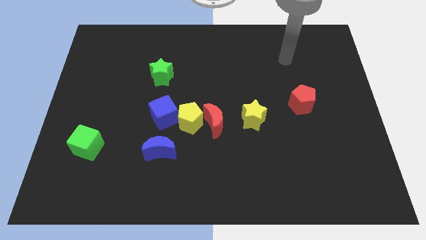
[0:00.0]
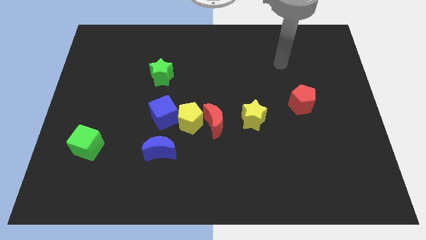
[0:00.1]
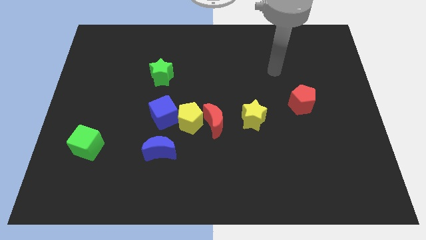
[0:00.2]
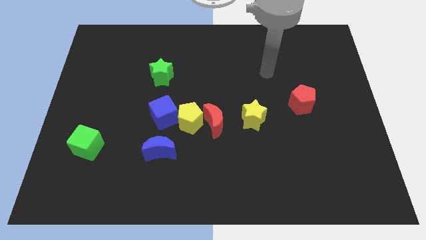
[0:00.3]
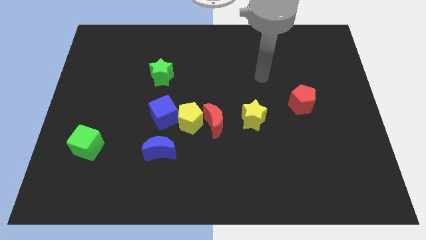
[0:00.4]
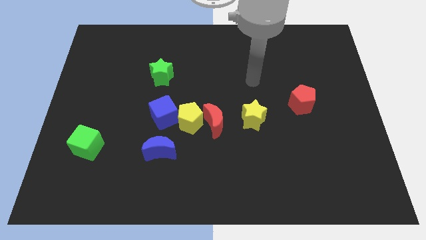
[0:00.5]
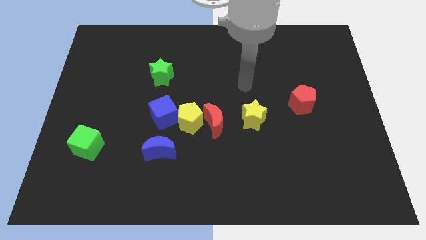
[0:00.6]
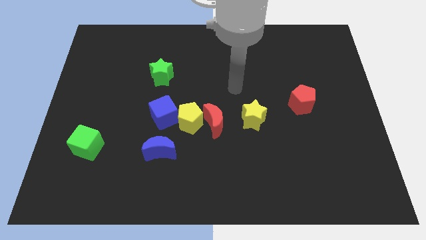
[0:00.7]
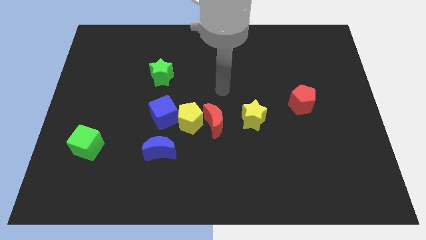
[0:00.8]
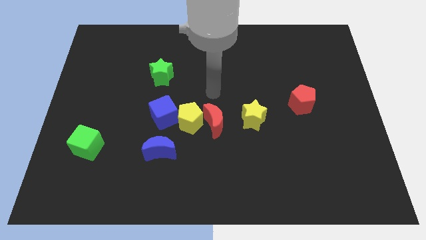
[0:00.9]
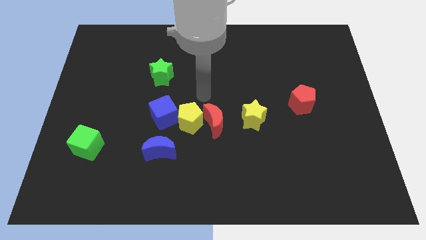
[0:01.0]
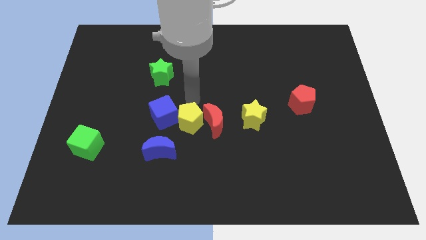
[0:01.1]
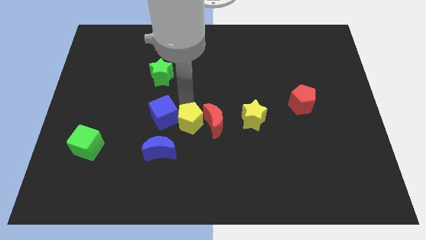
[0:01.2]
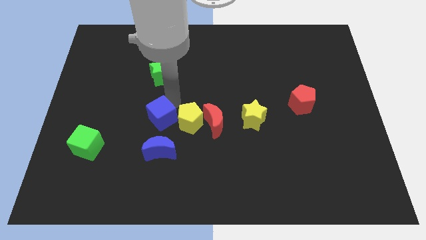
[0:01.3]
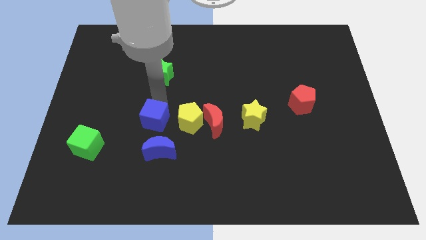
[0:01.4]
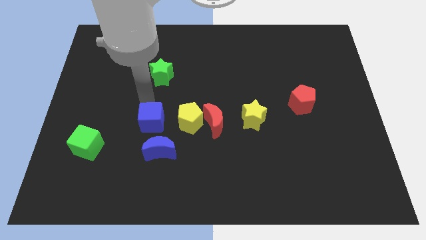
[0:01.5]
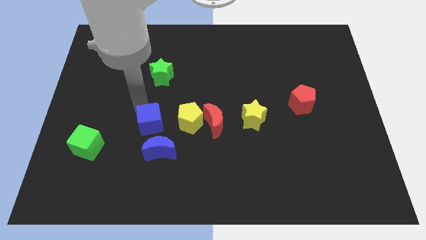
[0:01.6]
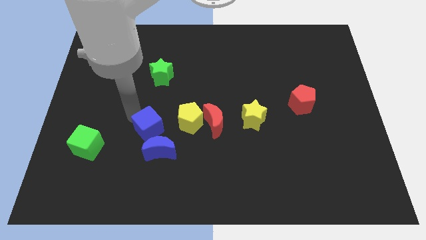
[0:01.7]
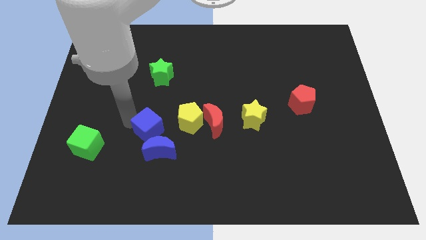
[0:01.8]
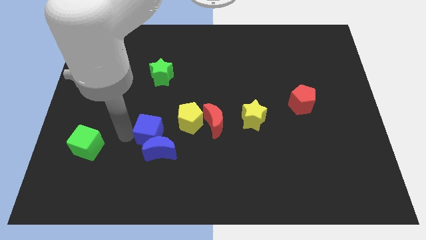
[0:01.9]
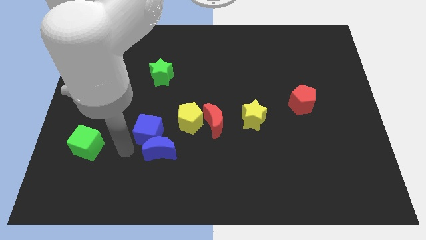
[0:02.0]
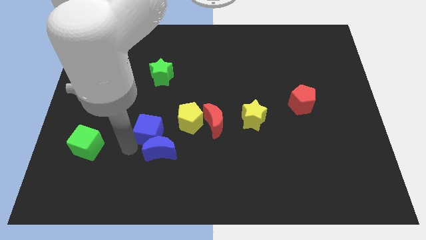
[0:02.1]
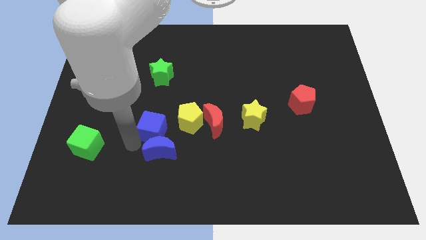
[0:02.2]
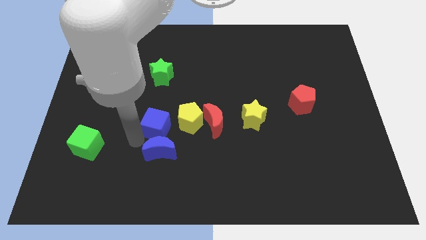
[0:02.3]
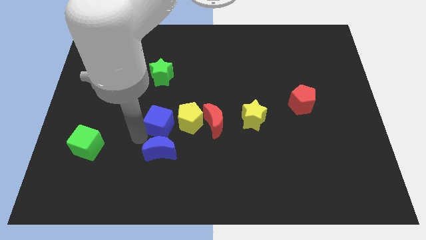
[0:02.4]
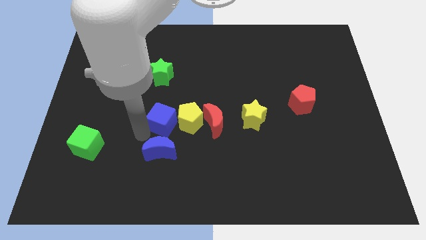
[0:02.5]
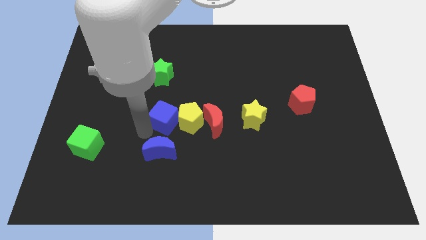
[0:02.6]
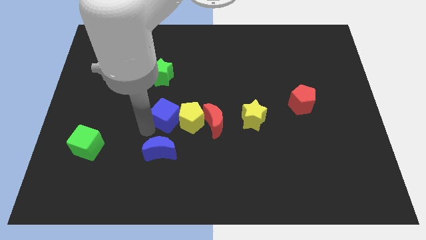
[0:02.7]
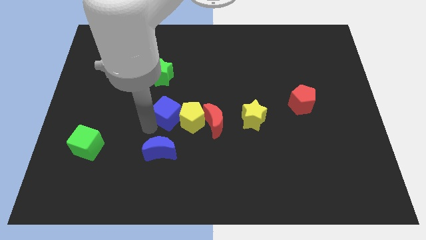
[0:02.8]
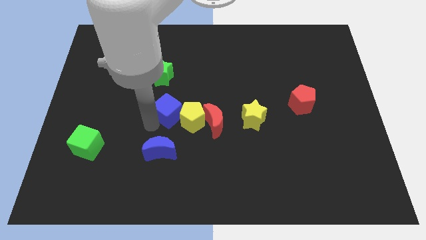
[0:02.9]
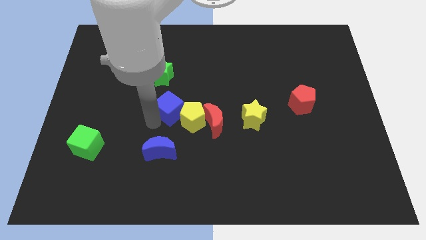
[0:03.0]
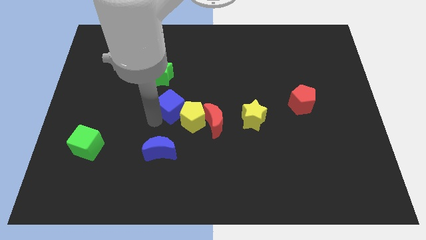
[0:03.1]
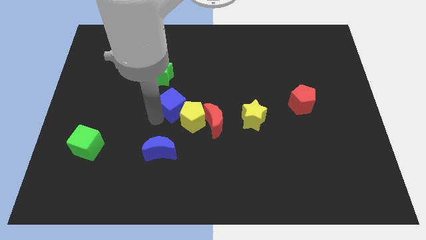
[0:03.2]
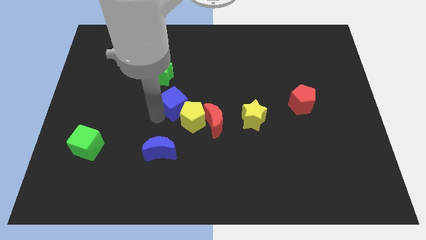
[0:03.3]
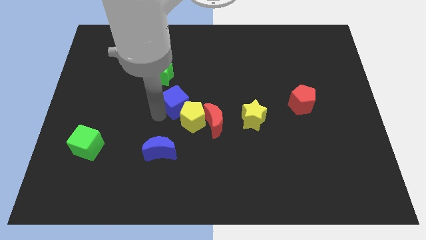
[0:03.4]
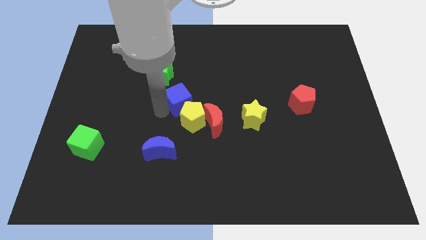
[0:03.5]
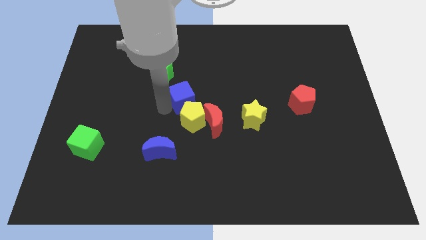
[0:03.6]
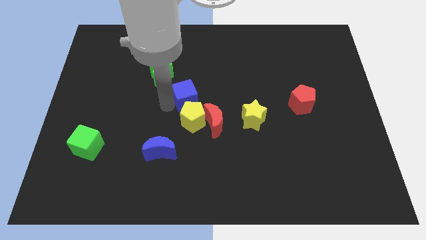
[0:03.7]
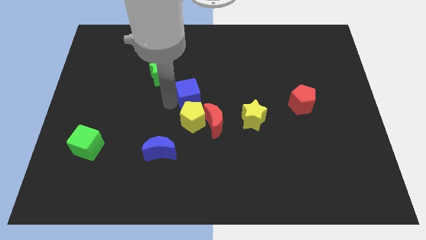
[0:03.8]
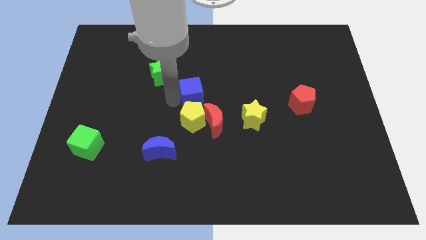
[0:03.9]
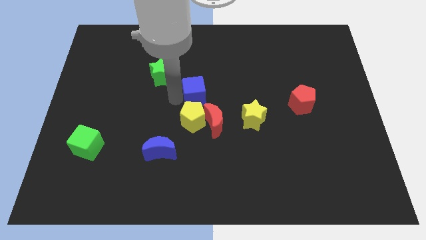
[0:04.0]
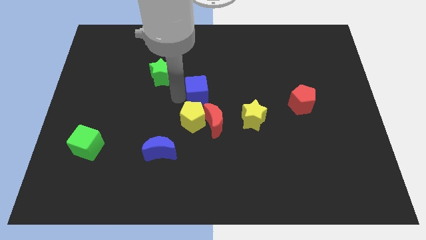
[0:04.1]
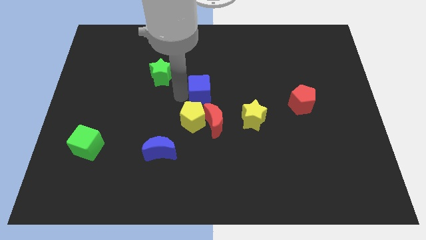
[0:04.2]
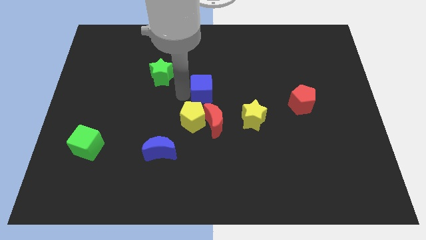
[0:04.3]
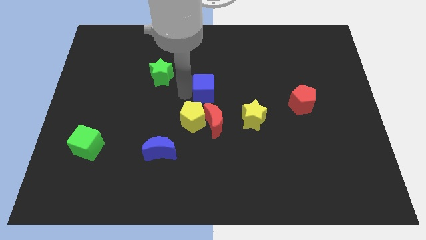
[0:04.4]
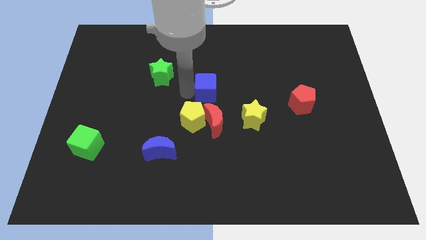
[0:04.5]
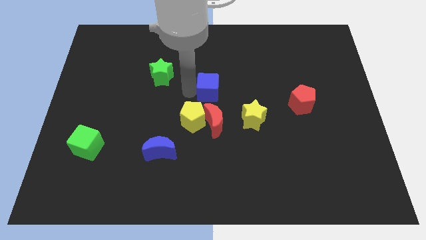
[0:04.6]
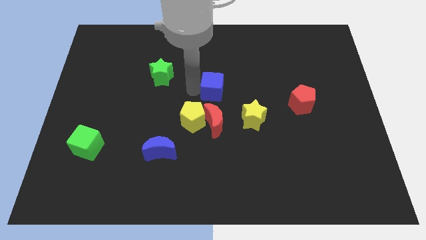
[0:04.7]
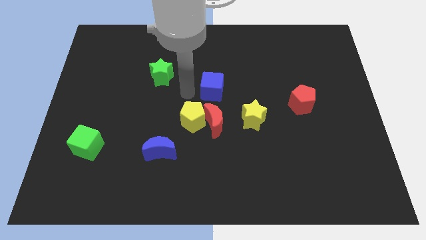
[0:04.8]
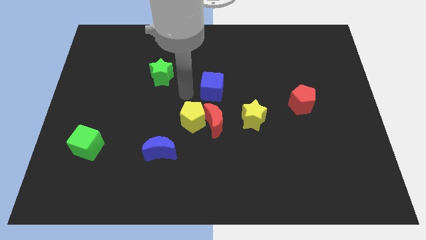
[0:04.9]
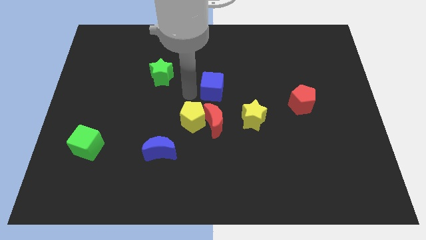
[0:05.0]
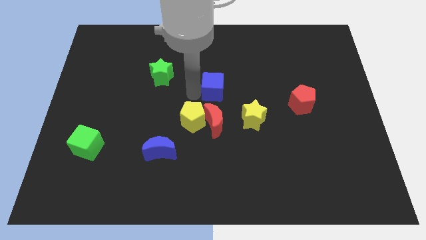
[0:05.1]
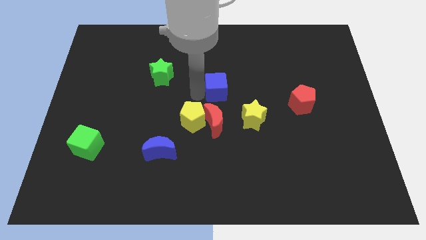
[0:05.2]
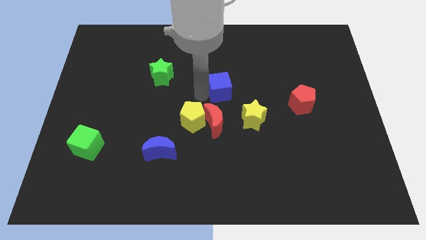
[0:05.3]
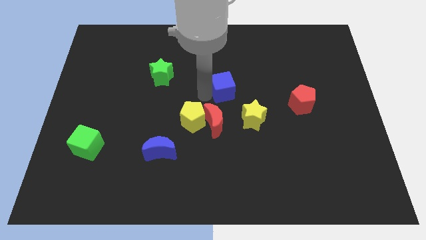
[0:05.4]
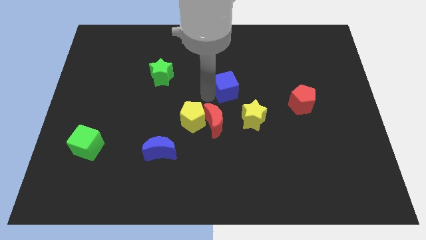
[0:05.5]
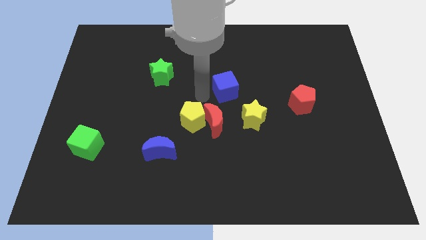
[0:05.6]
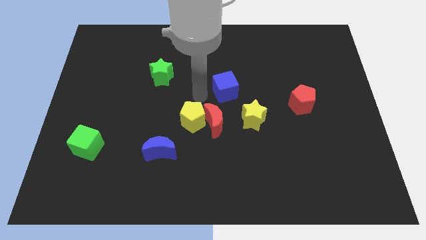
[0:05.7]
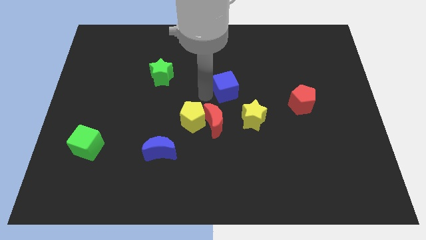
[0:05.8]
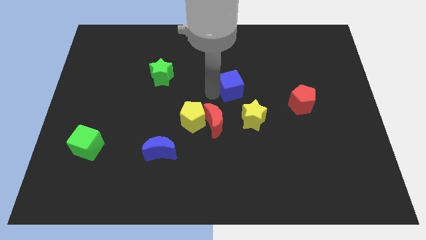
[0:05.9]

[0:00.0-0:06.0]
put the blue cube to the top side of the yellow star
